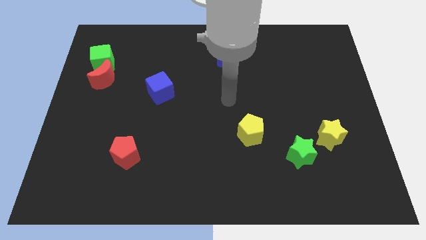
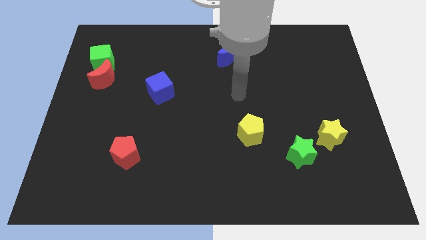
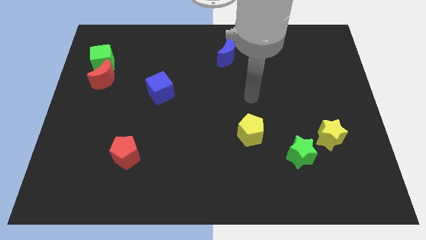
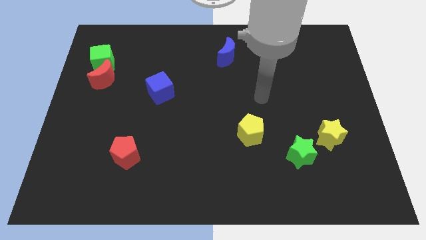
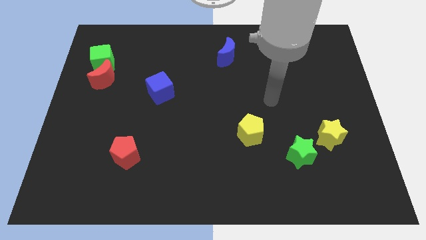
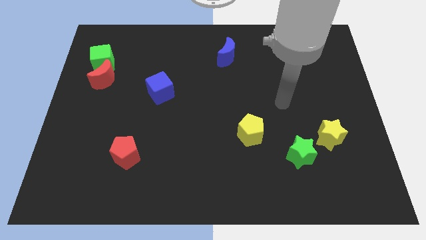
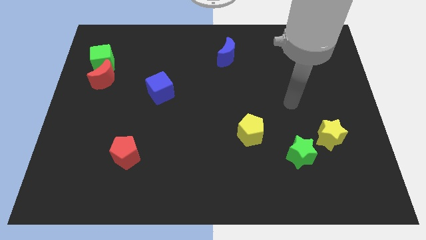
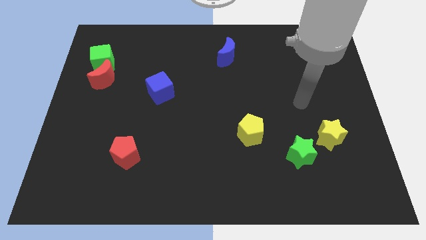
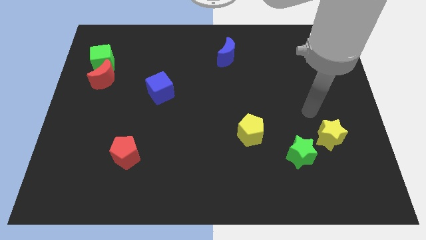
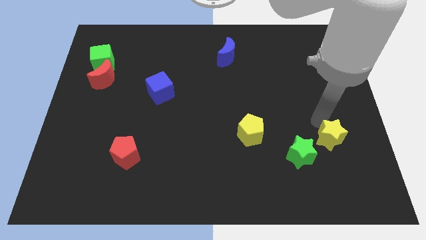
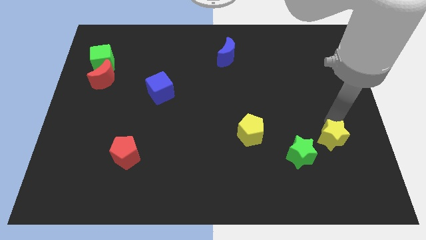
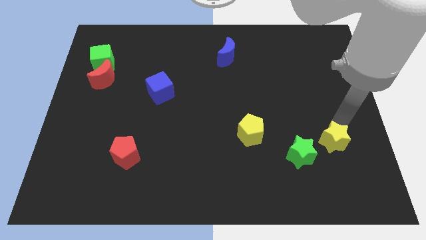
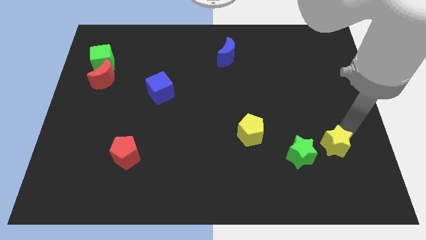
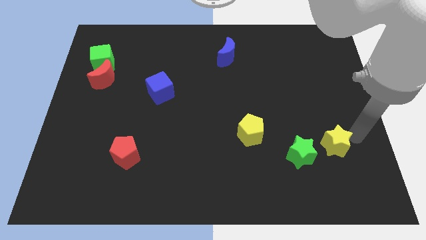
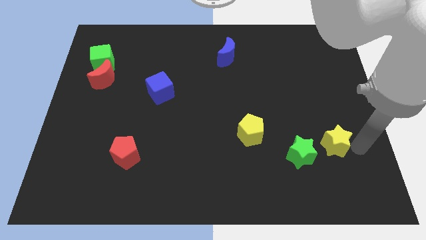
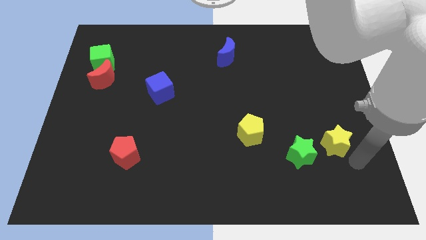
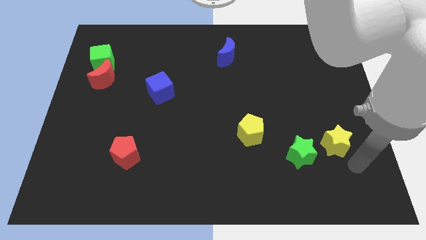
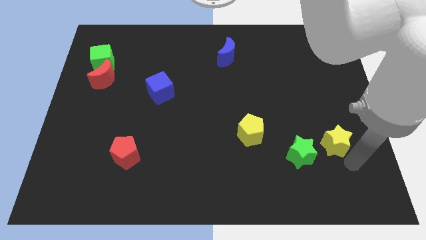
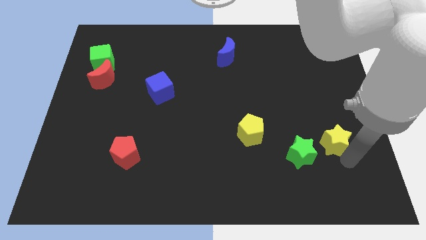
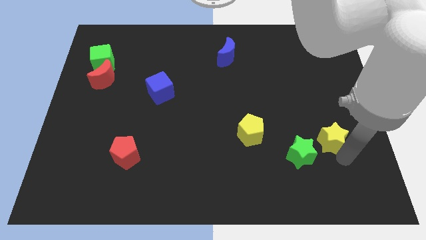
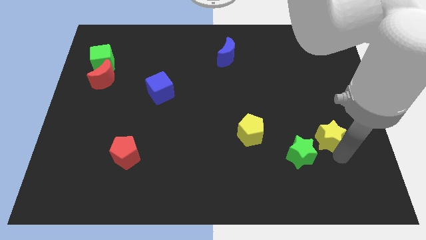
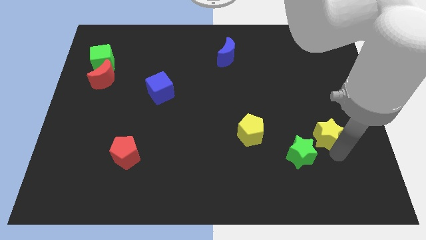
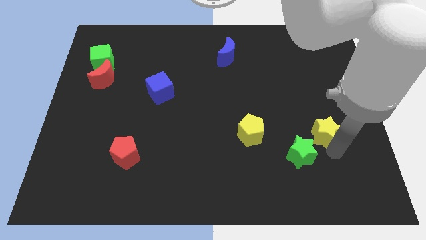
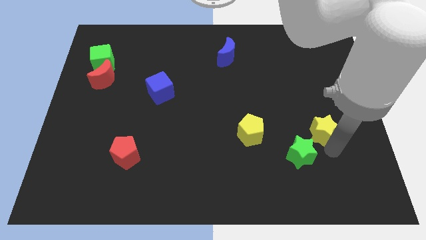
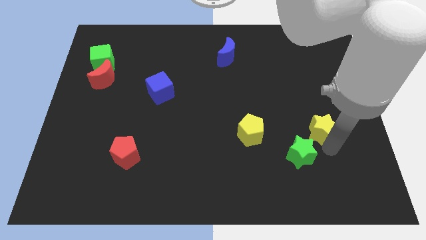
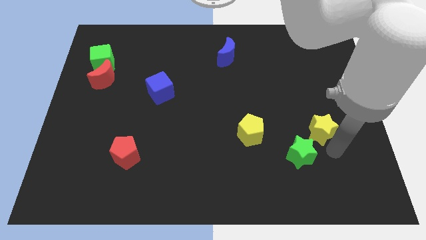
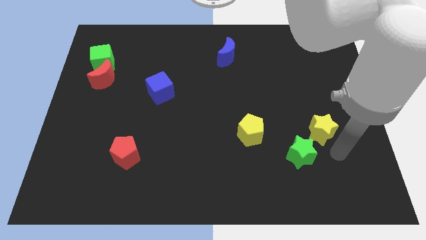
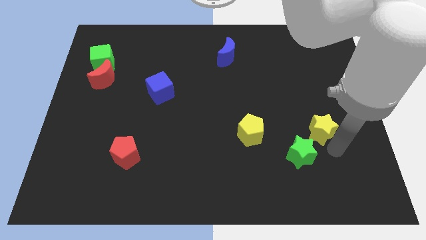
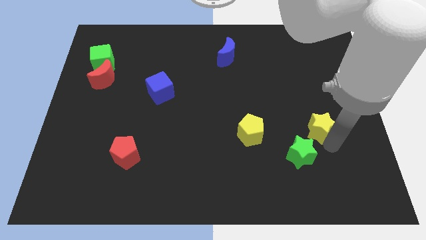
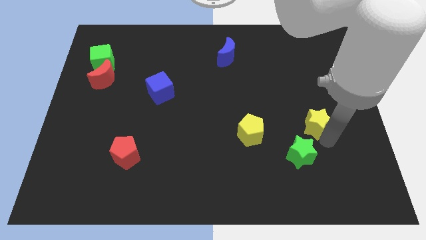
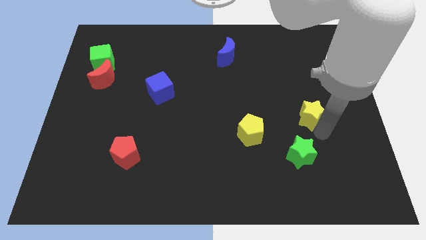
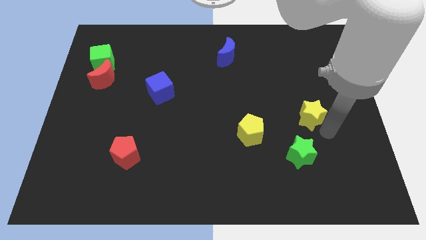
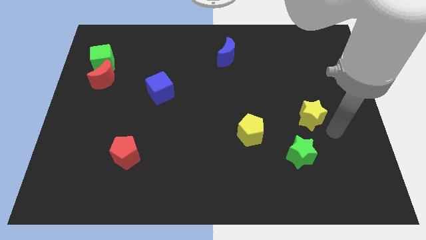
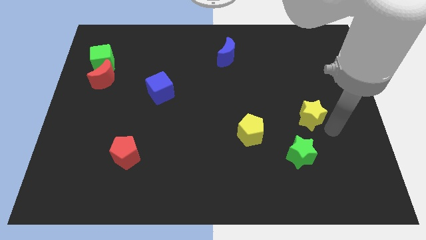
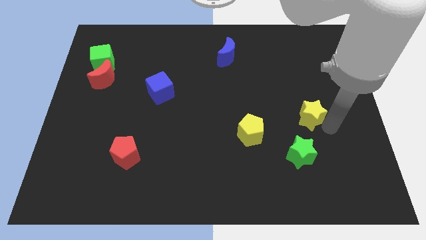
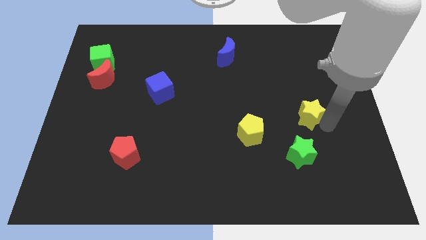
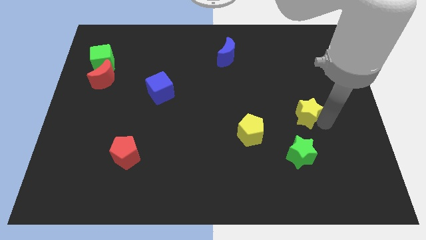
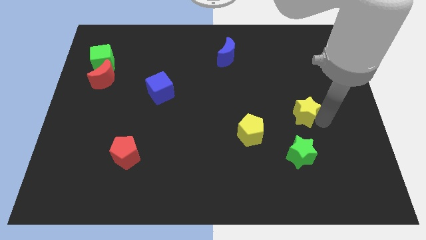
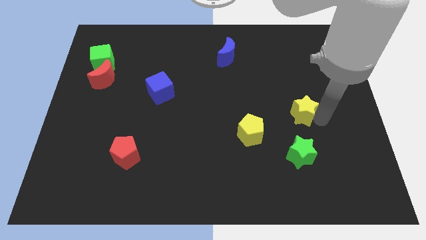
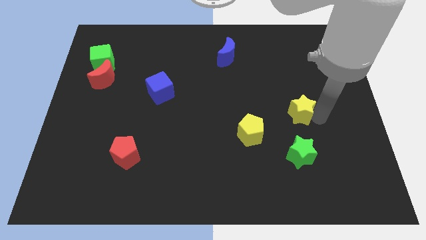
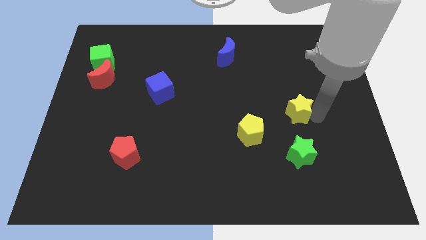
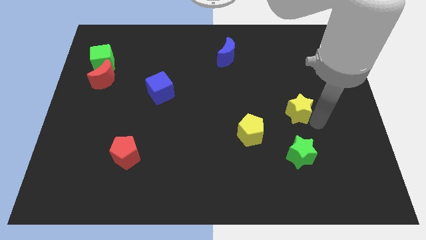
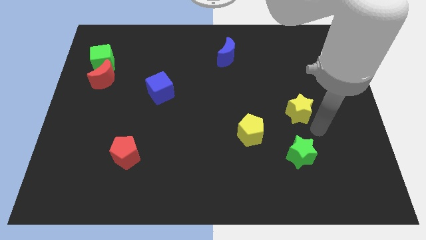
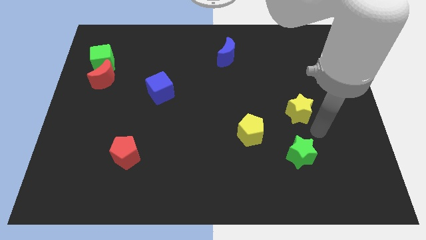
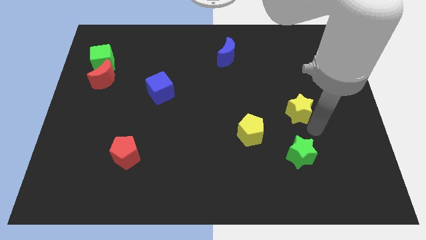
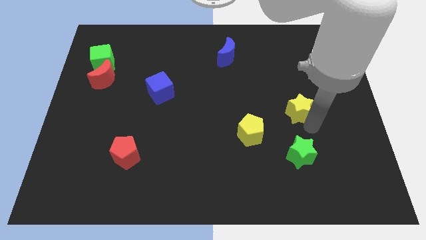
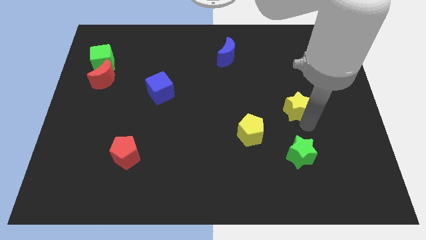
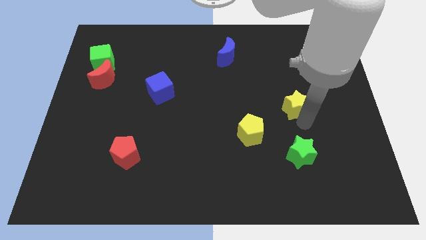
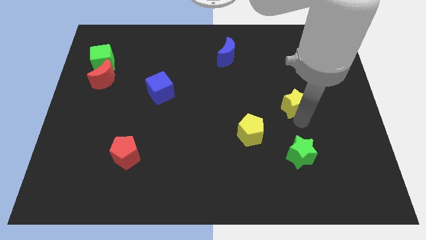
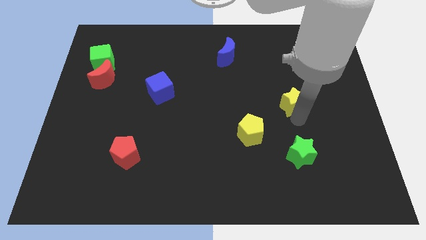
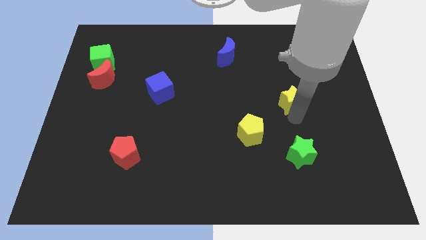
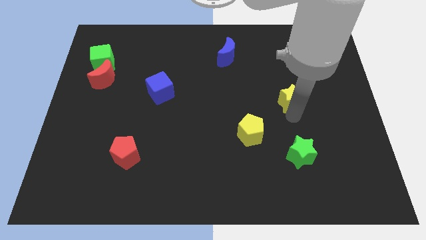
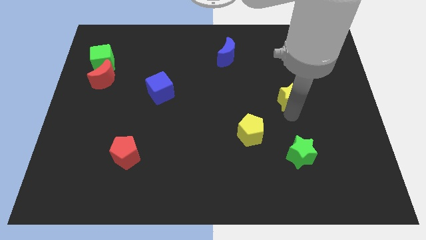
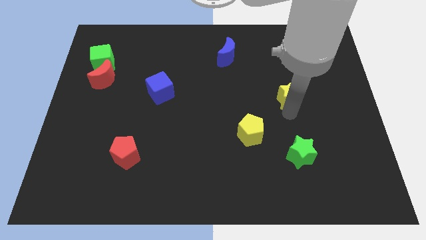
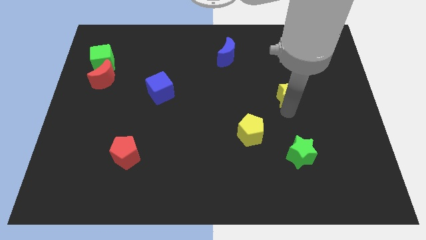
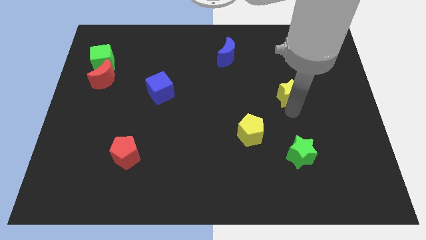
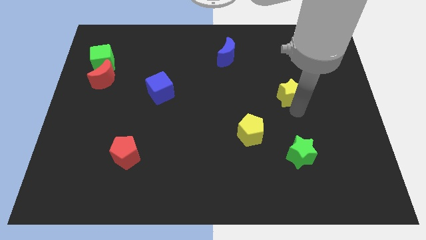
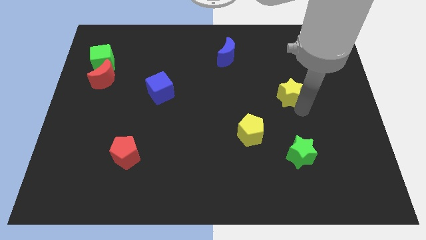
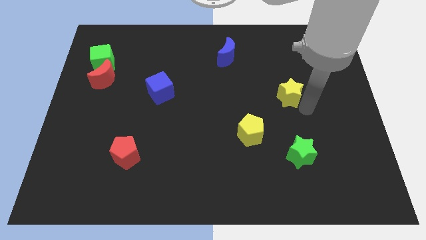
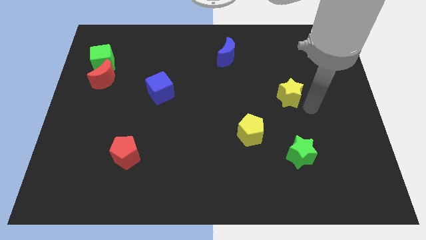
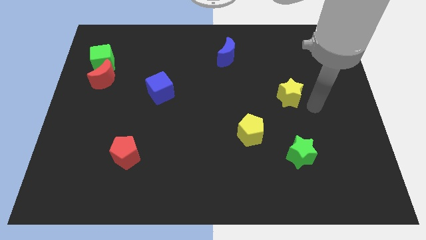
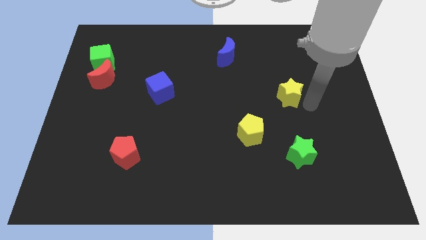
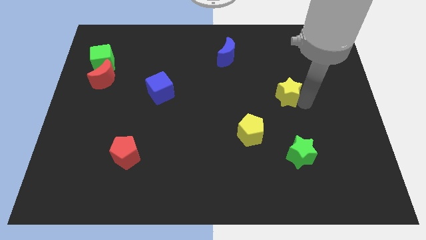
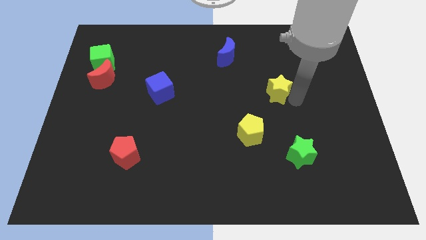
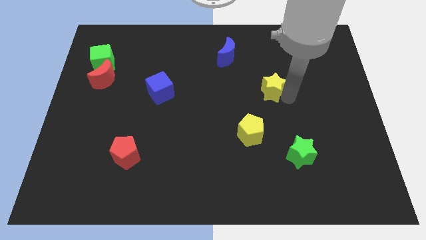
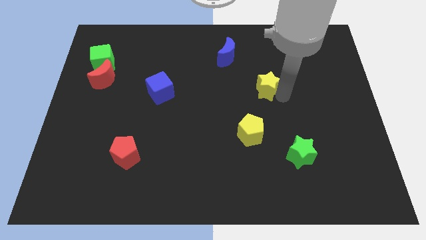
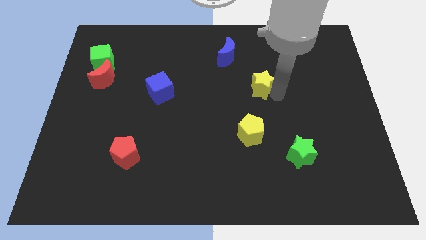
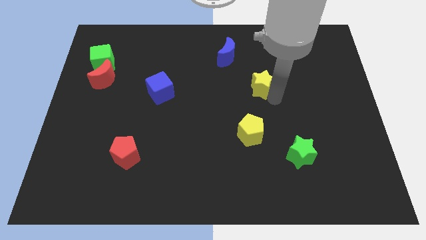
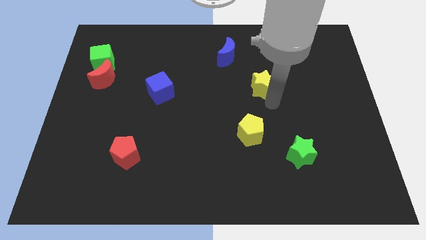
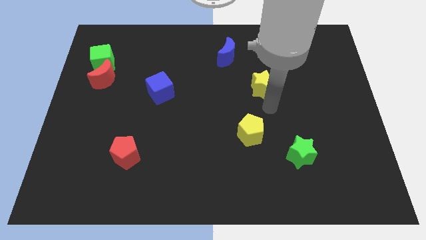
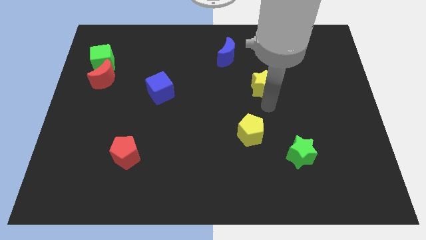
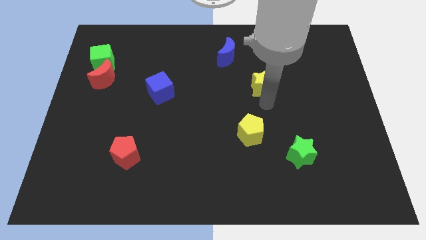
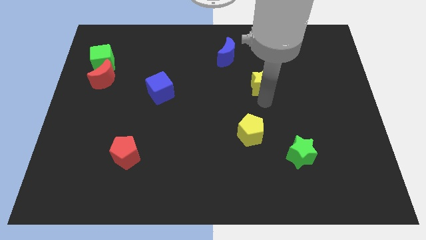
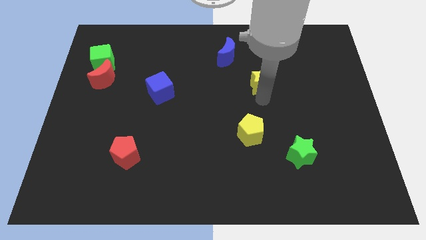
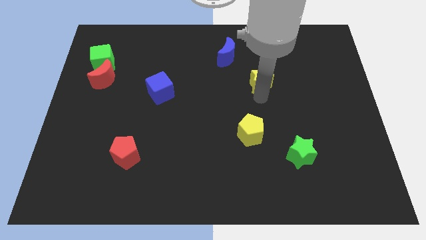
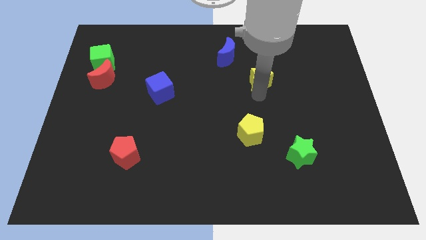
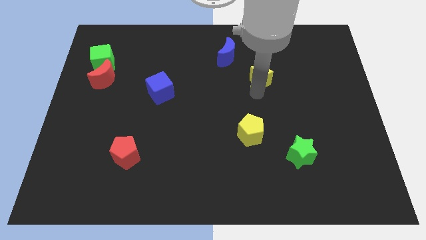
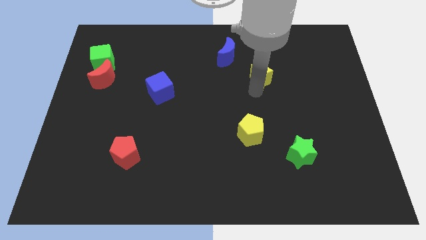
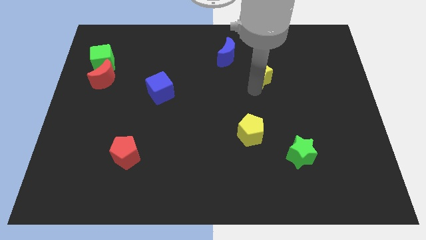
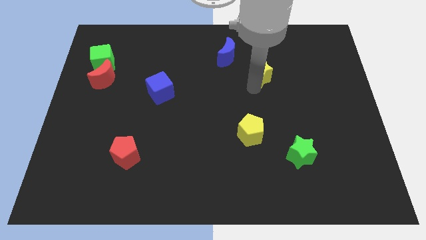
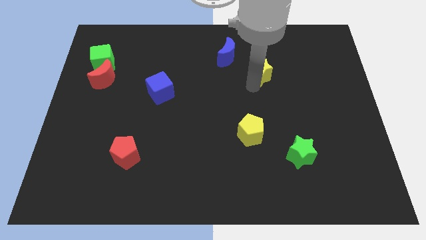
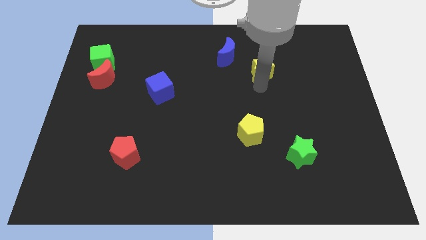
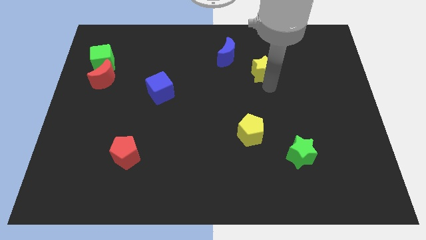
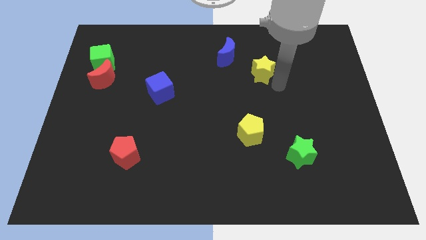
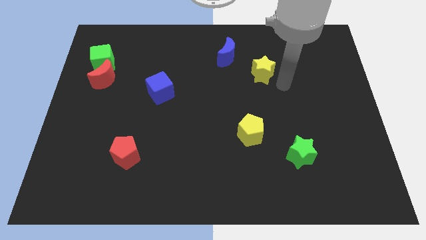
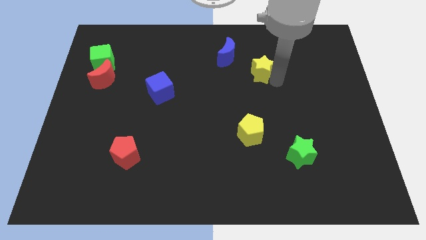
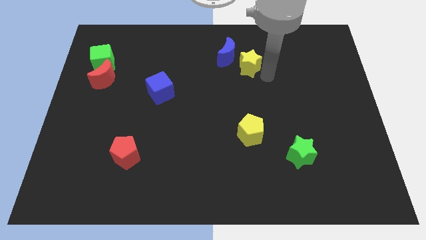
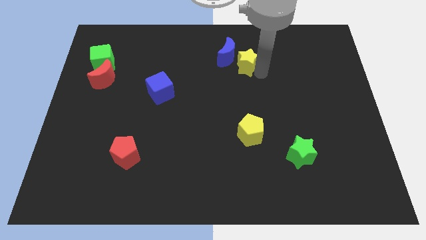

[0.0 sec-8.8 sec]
slide the yellow star next to the blue moon
